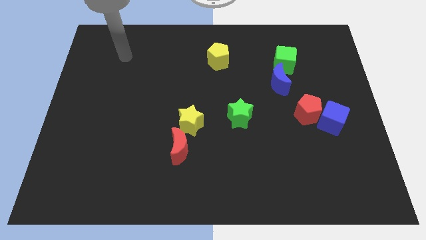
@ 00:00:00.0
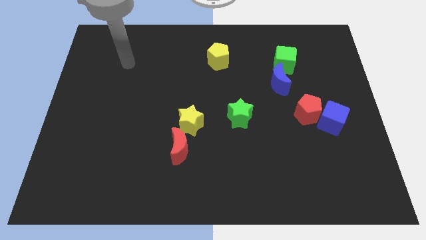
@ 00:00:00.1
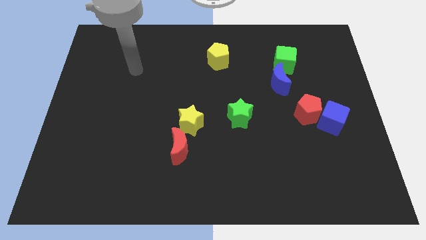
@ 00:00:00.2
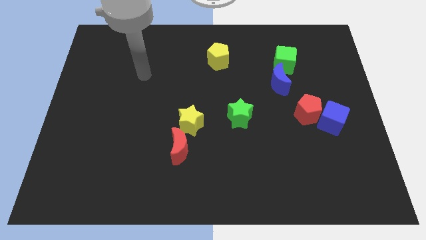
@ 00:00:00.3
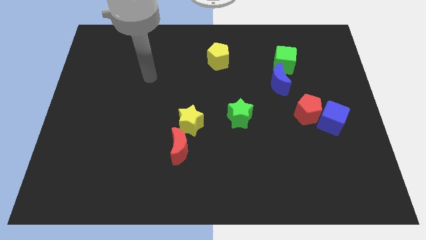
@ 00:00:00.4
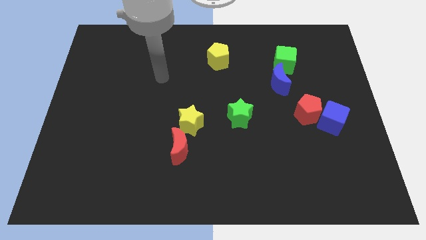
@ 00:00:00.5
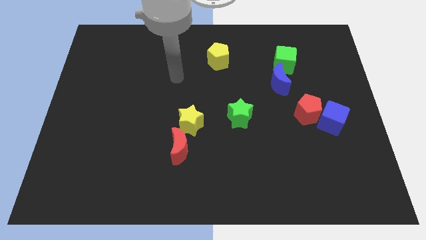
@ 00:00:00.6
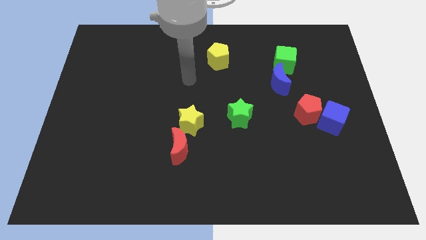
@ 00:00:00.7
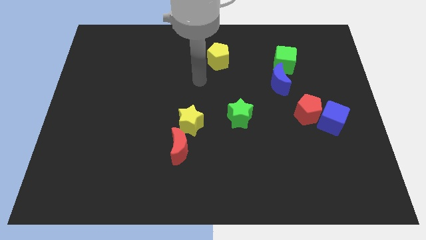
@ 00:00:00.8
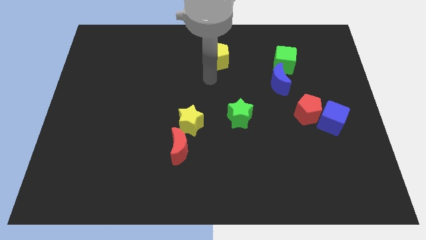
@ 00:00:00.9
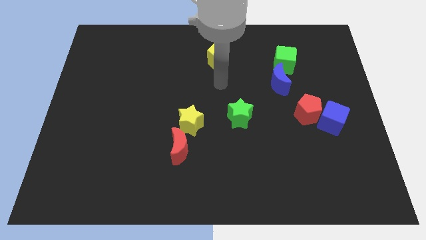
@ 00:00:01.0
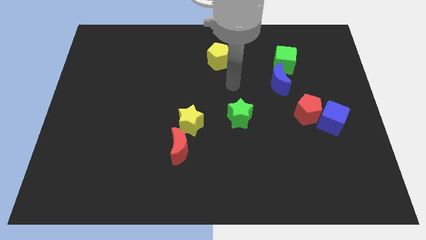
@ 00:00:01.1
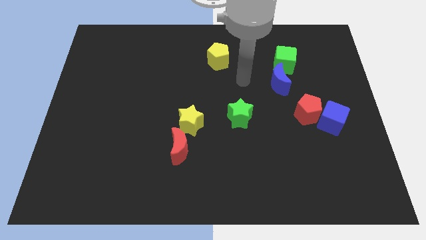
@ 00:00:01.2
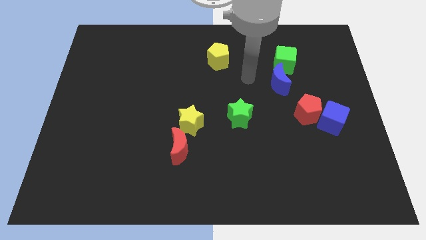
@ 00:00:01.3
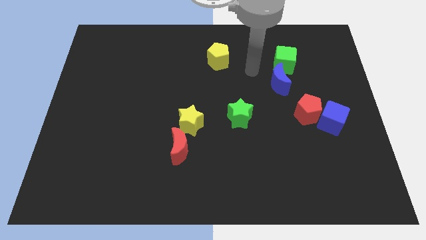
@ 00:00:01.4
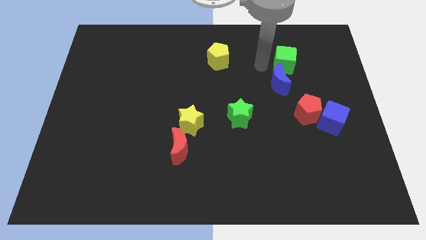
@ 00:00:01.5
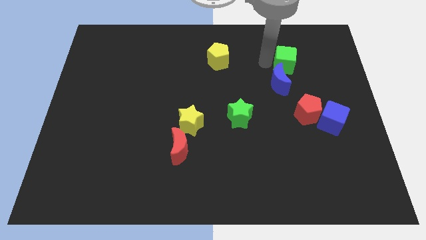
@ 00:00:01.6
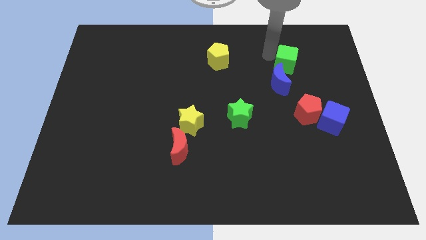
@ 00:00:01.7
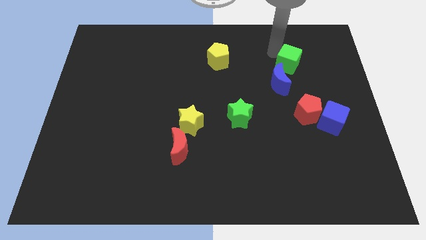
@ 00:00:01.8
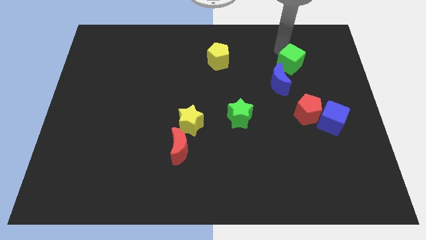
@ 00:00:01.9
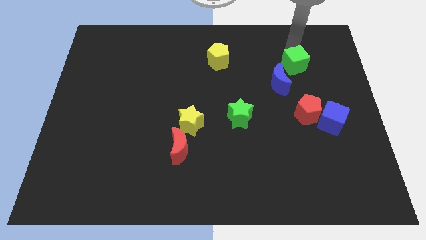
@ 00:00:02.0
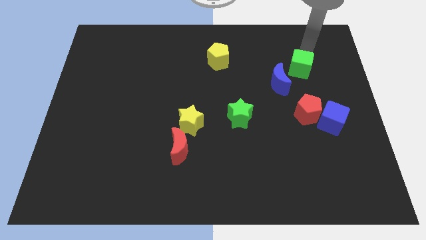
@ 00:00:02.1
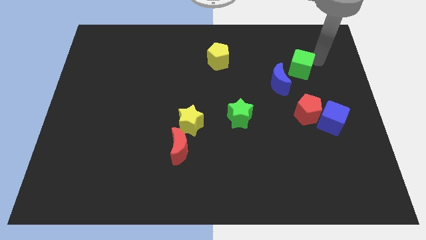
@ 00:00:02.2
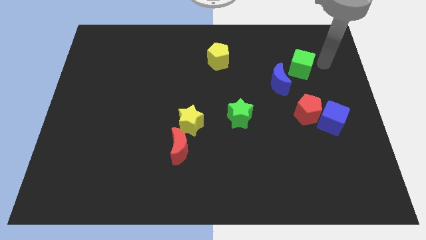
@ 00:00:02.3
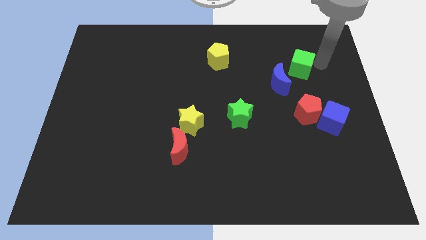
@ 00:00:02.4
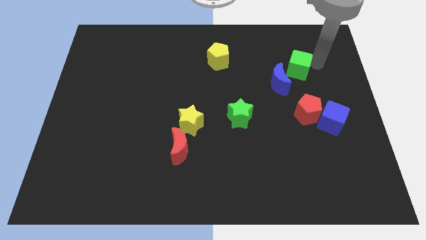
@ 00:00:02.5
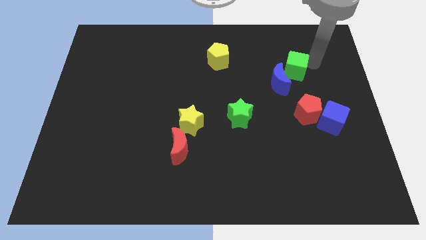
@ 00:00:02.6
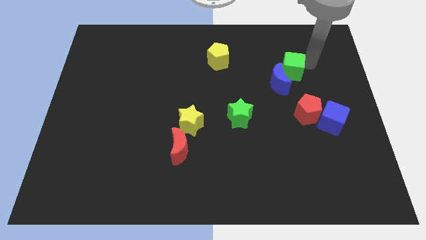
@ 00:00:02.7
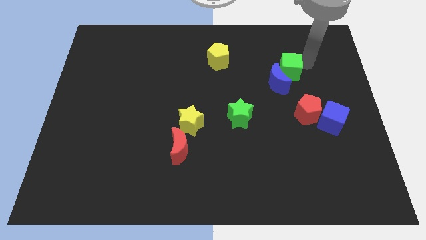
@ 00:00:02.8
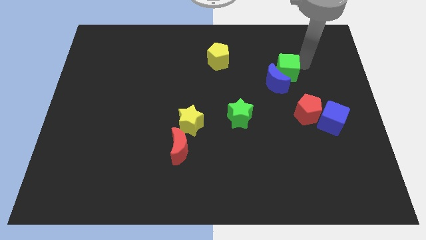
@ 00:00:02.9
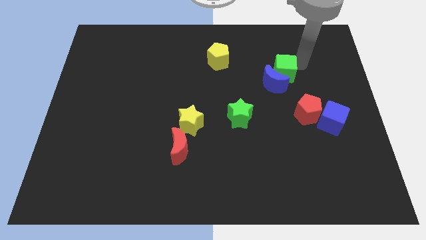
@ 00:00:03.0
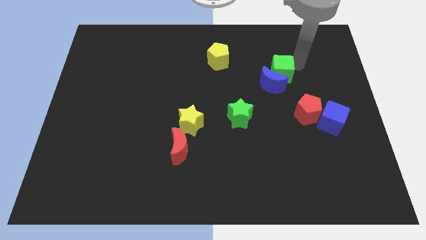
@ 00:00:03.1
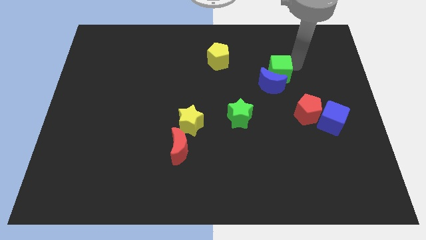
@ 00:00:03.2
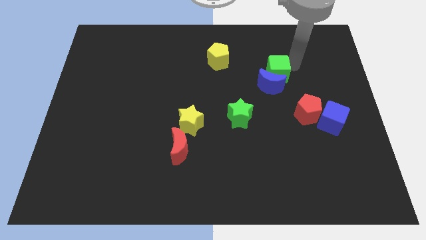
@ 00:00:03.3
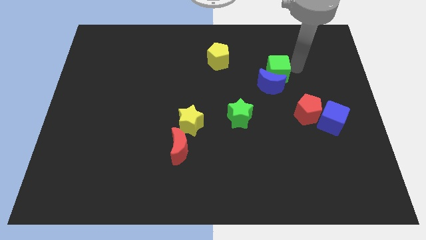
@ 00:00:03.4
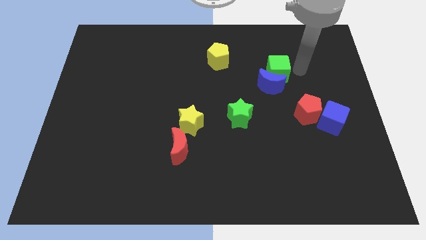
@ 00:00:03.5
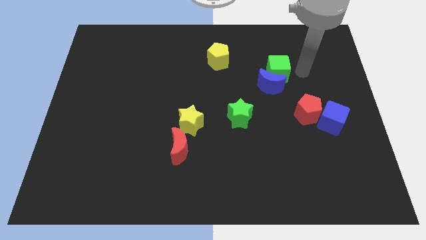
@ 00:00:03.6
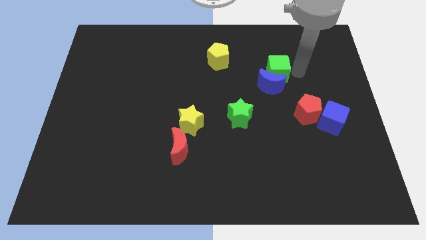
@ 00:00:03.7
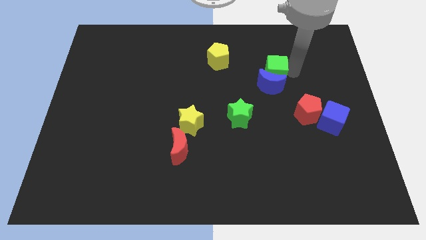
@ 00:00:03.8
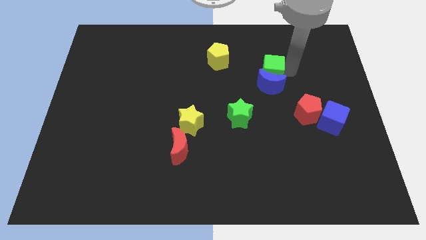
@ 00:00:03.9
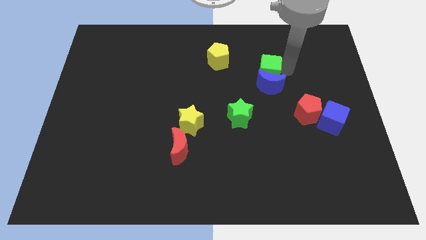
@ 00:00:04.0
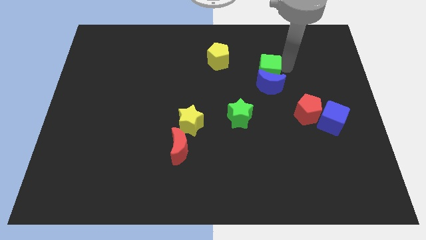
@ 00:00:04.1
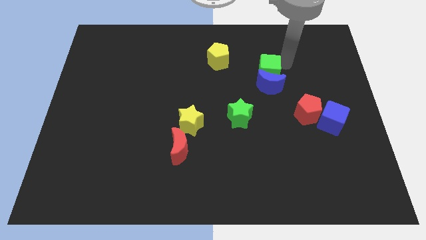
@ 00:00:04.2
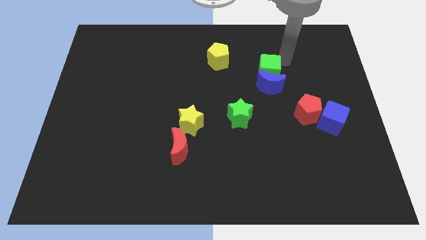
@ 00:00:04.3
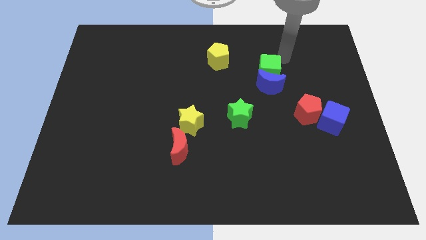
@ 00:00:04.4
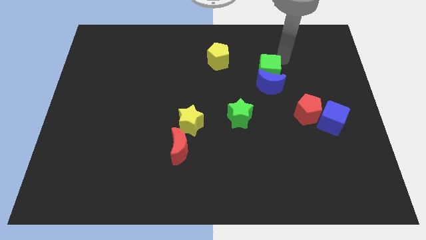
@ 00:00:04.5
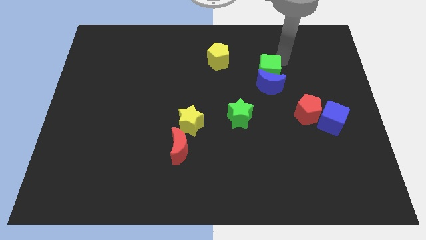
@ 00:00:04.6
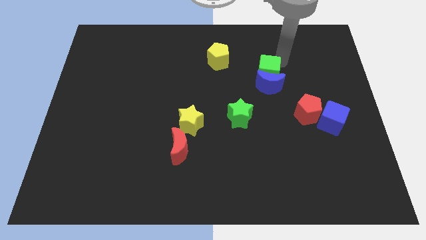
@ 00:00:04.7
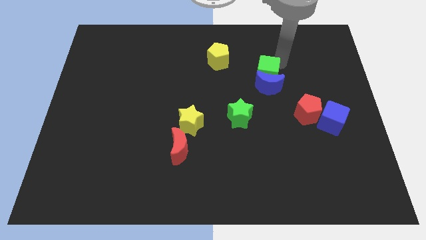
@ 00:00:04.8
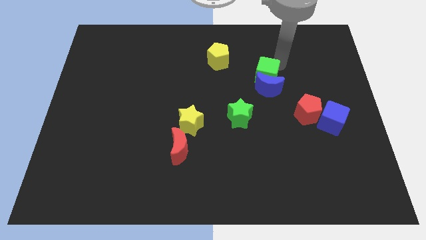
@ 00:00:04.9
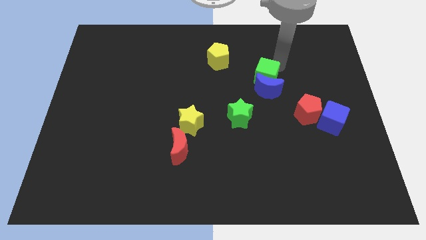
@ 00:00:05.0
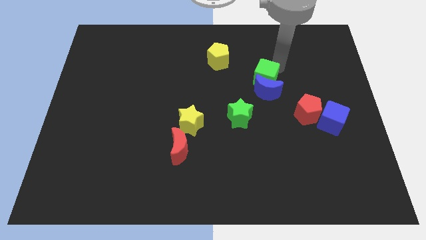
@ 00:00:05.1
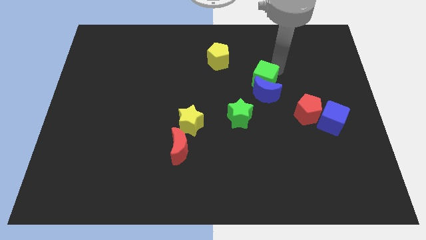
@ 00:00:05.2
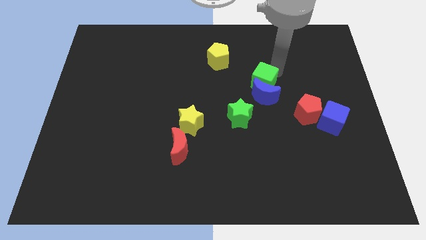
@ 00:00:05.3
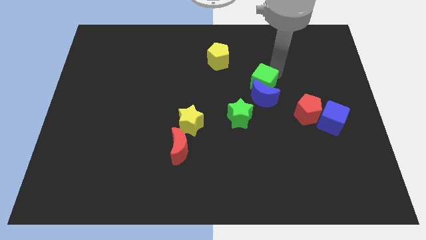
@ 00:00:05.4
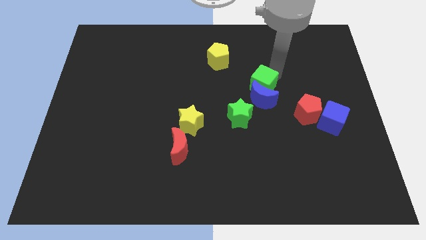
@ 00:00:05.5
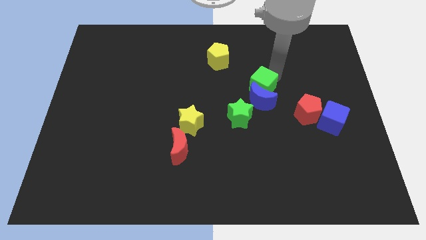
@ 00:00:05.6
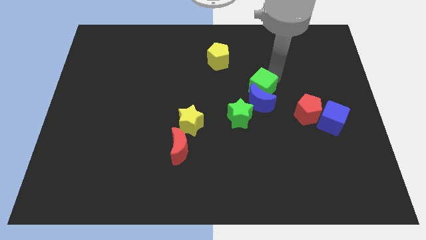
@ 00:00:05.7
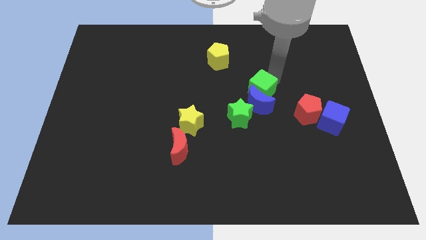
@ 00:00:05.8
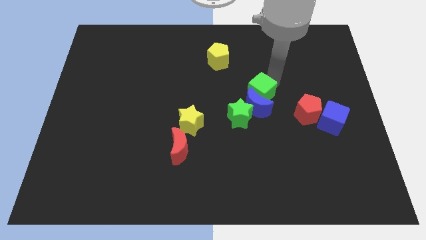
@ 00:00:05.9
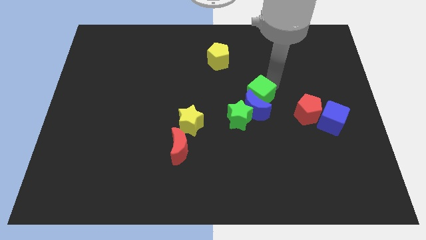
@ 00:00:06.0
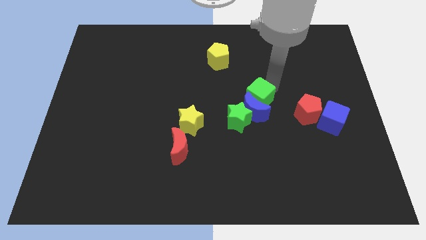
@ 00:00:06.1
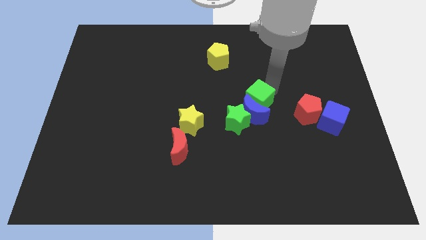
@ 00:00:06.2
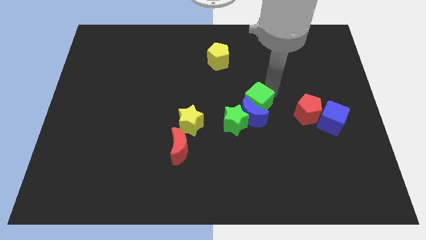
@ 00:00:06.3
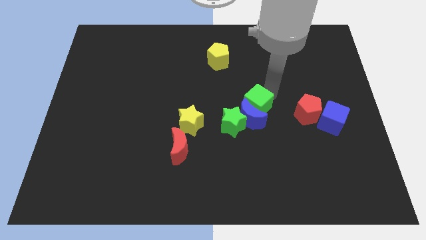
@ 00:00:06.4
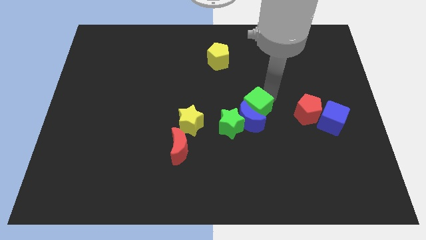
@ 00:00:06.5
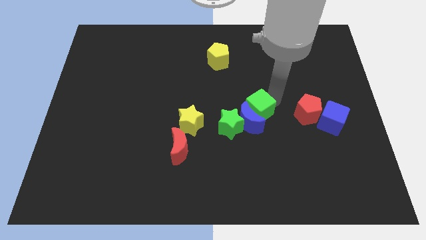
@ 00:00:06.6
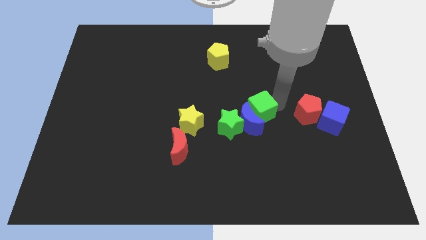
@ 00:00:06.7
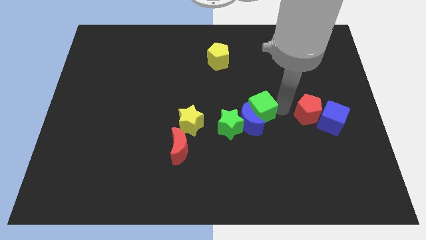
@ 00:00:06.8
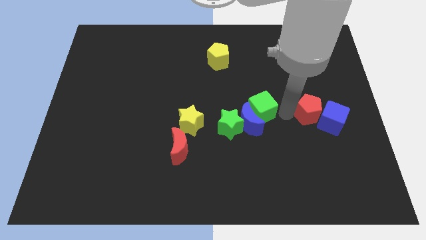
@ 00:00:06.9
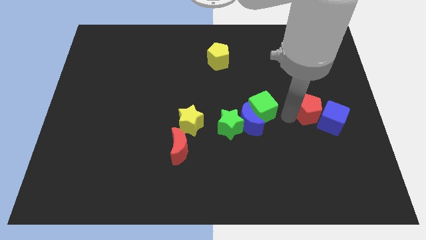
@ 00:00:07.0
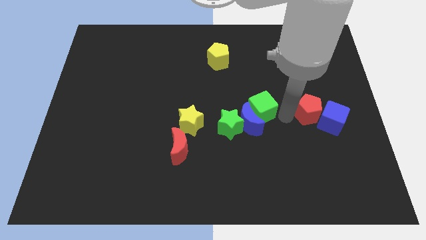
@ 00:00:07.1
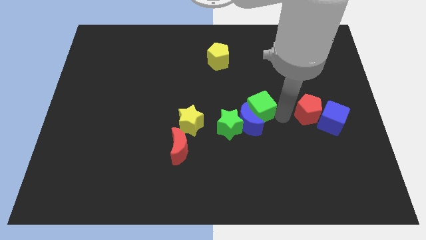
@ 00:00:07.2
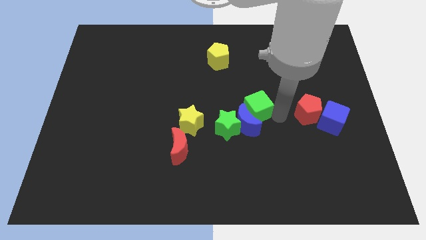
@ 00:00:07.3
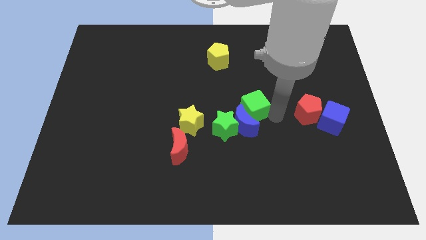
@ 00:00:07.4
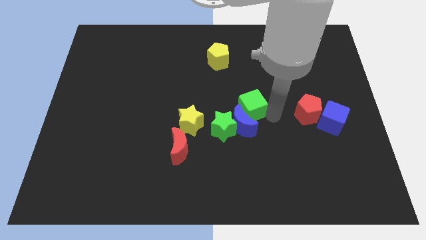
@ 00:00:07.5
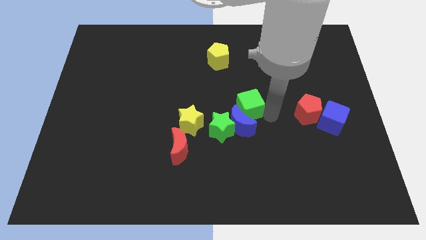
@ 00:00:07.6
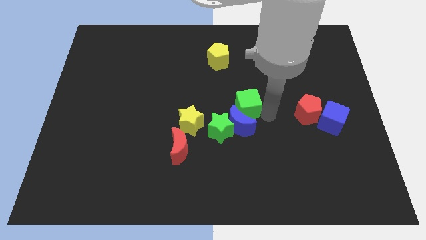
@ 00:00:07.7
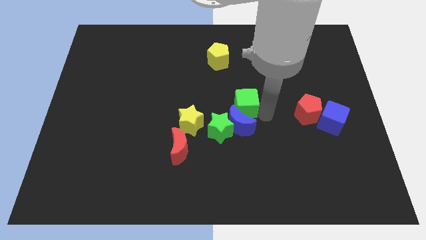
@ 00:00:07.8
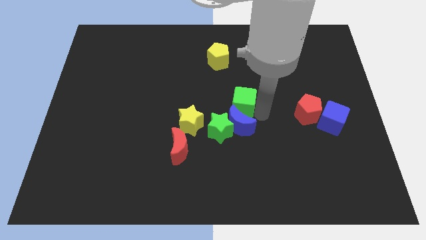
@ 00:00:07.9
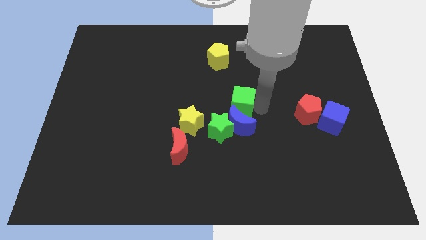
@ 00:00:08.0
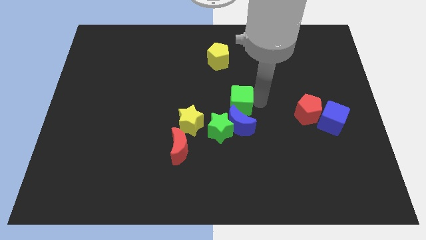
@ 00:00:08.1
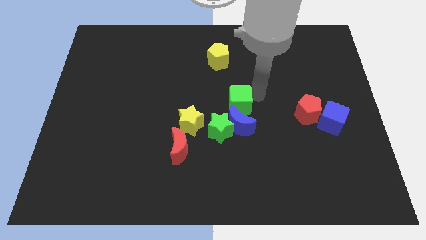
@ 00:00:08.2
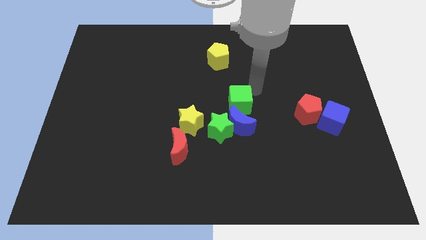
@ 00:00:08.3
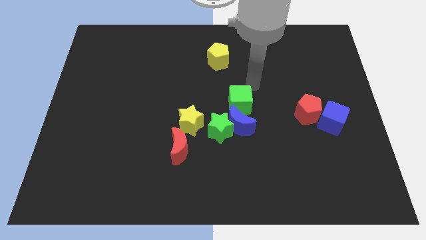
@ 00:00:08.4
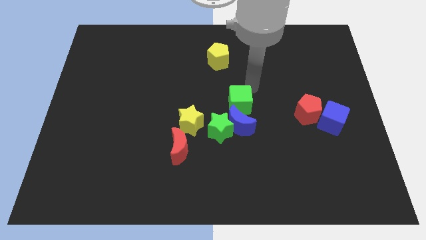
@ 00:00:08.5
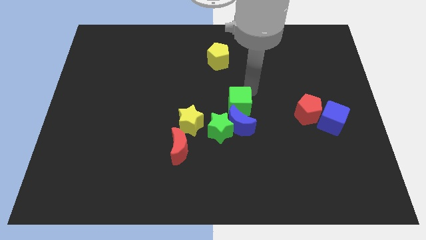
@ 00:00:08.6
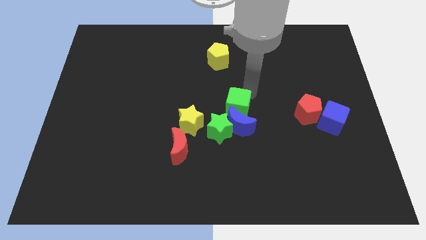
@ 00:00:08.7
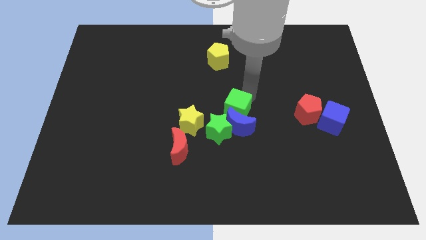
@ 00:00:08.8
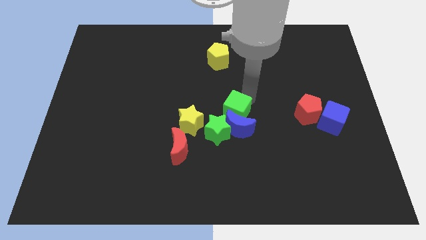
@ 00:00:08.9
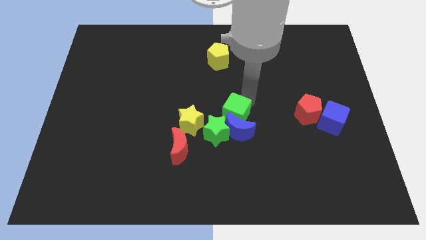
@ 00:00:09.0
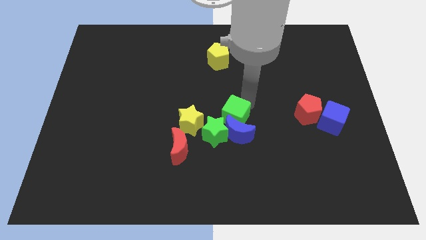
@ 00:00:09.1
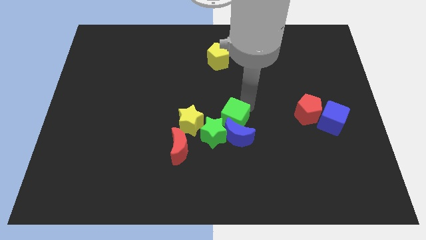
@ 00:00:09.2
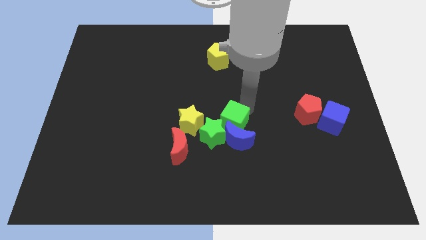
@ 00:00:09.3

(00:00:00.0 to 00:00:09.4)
push the green cube close to the green star
